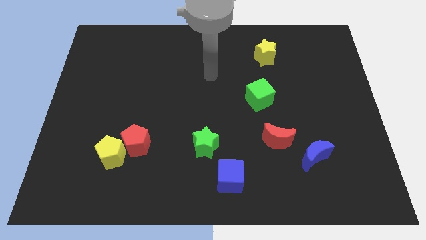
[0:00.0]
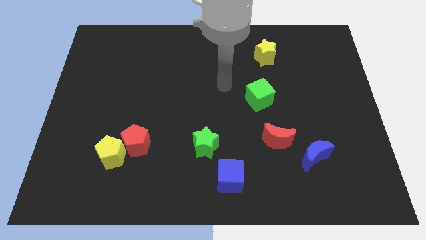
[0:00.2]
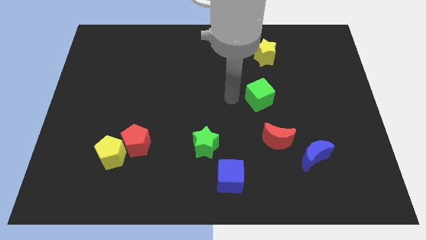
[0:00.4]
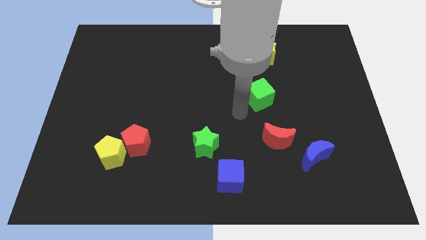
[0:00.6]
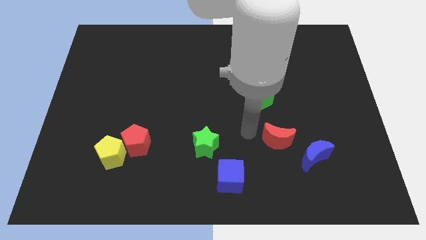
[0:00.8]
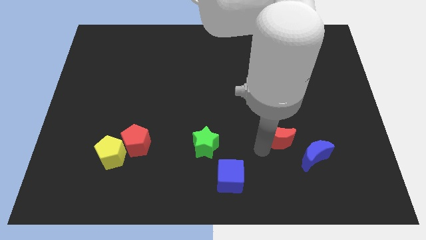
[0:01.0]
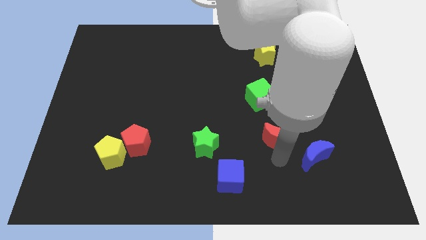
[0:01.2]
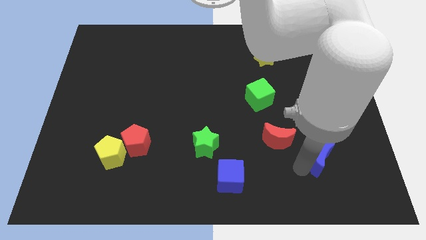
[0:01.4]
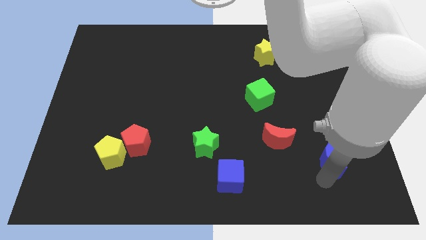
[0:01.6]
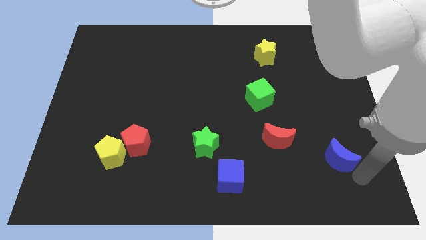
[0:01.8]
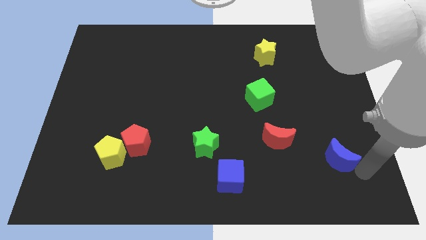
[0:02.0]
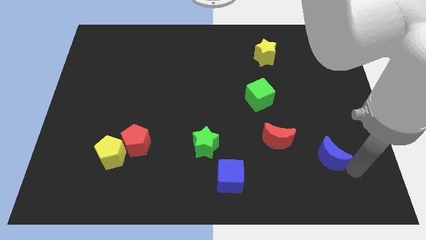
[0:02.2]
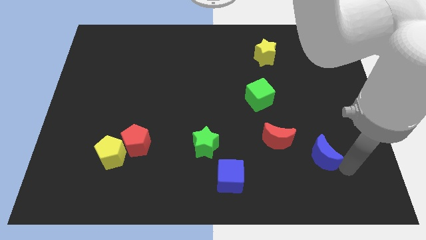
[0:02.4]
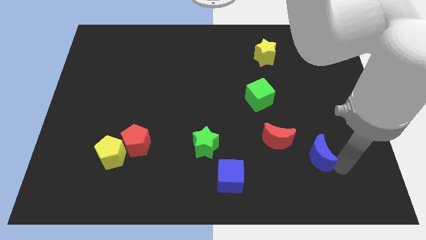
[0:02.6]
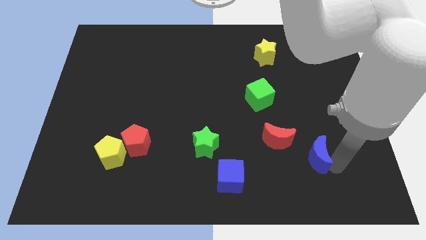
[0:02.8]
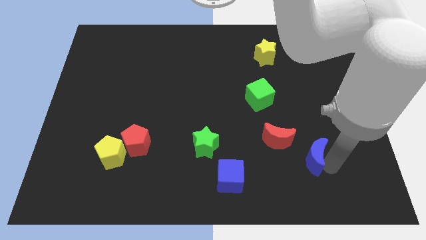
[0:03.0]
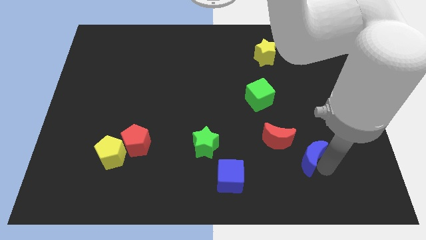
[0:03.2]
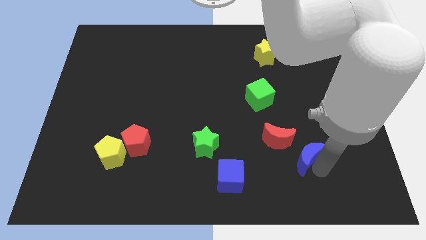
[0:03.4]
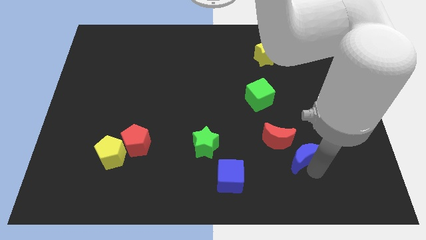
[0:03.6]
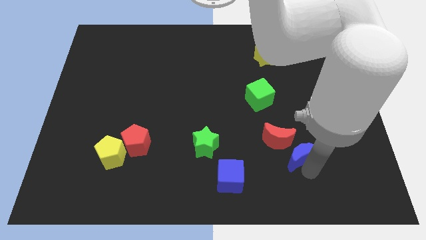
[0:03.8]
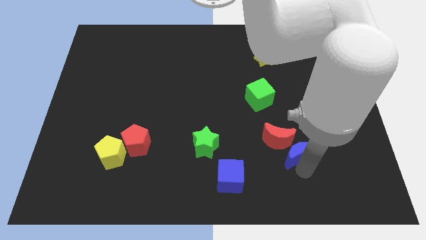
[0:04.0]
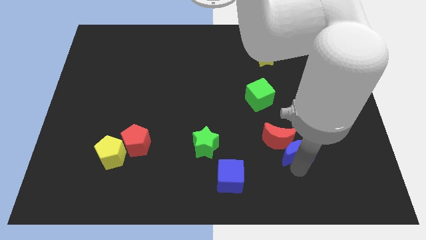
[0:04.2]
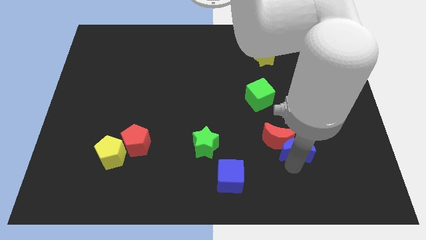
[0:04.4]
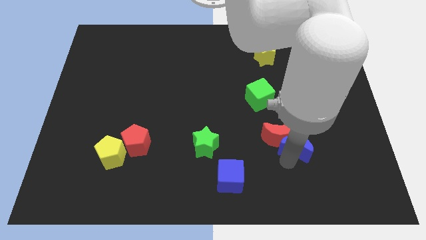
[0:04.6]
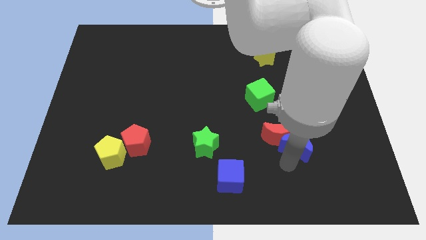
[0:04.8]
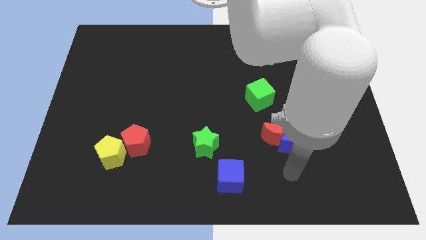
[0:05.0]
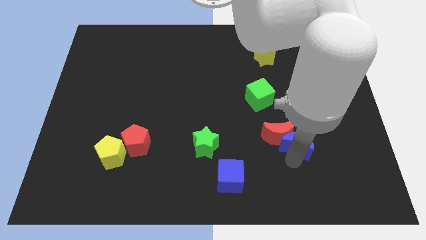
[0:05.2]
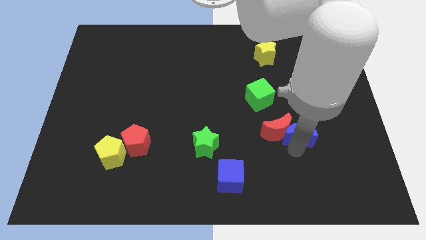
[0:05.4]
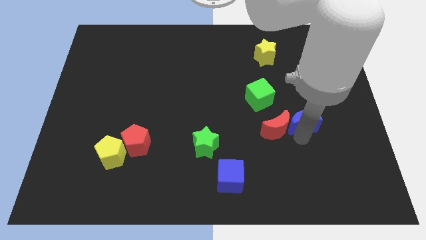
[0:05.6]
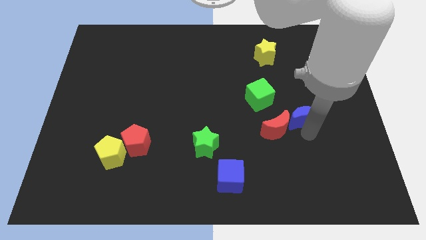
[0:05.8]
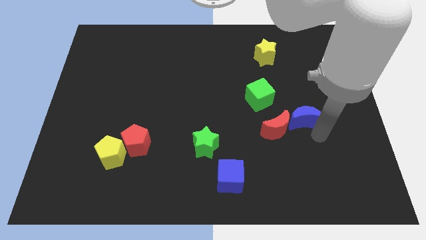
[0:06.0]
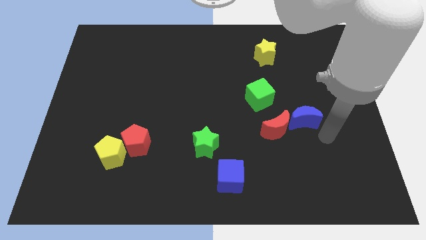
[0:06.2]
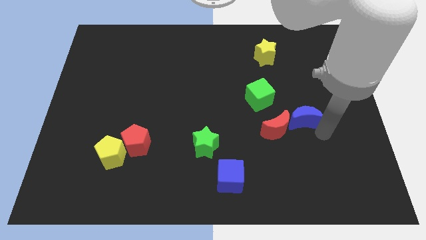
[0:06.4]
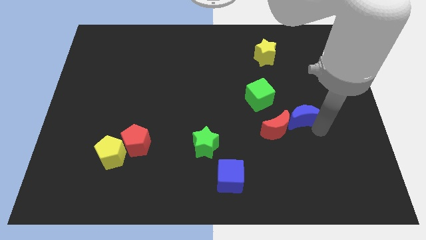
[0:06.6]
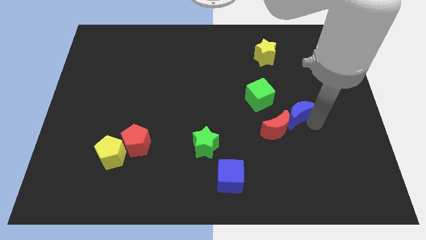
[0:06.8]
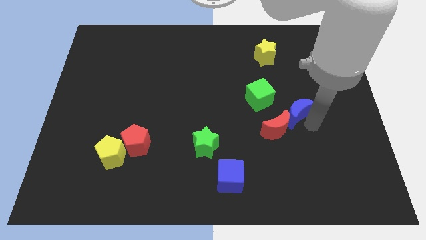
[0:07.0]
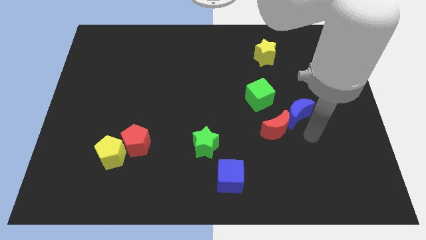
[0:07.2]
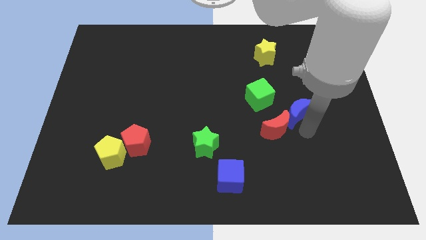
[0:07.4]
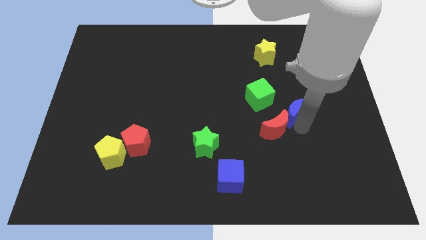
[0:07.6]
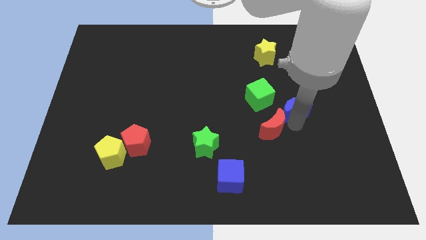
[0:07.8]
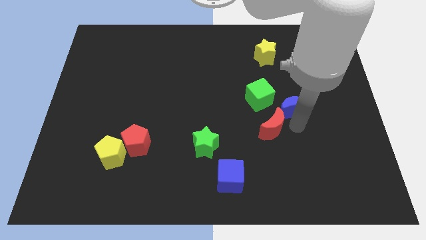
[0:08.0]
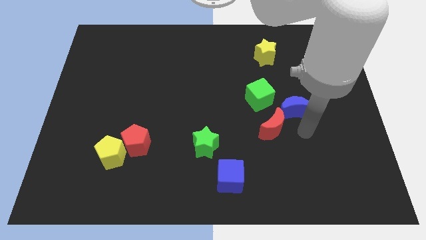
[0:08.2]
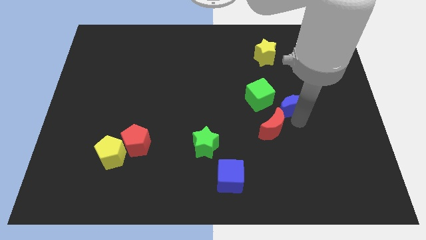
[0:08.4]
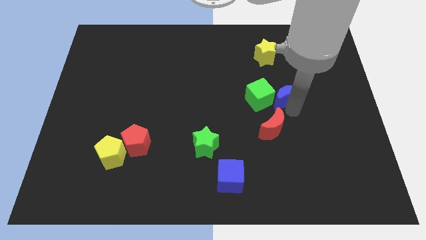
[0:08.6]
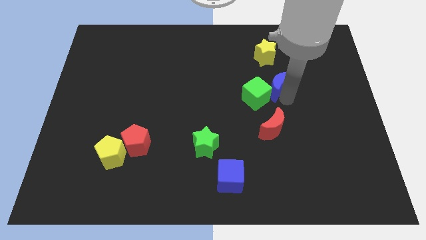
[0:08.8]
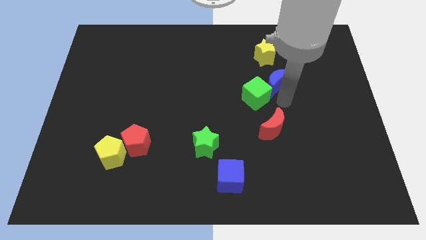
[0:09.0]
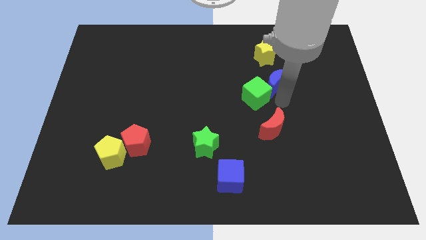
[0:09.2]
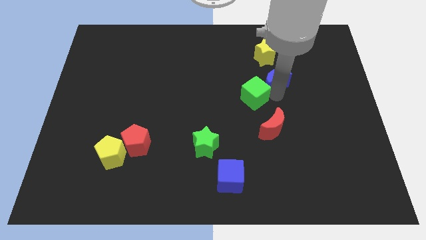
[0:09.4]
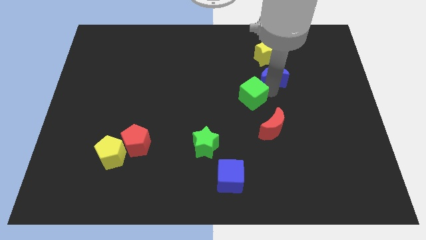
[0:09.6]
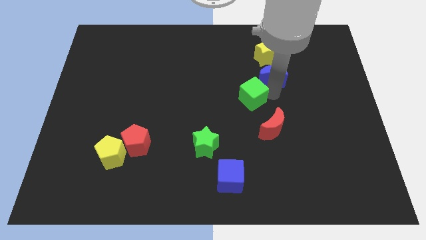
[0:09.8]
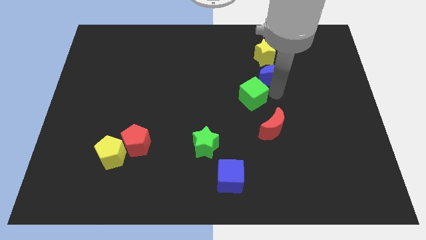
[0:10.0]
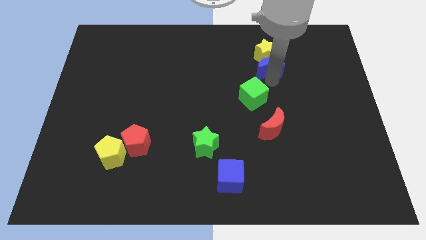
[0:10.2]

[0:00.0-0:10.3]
slide the blue moon close to the yellow star

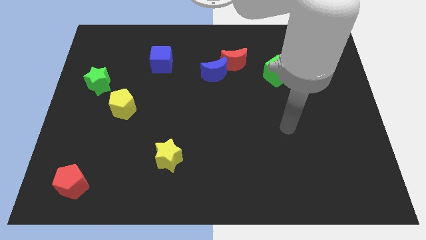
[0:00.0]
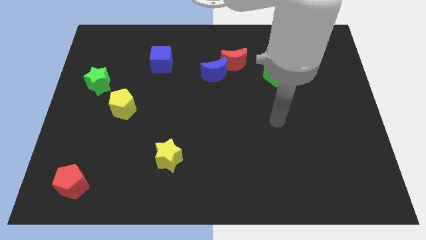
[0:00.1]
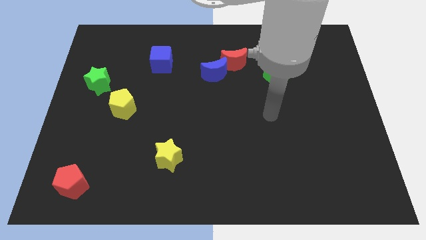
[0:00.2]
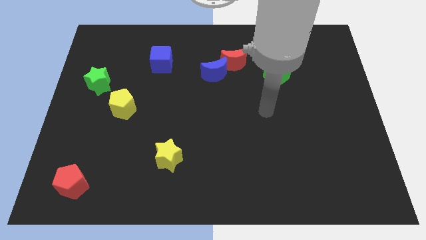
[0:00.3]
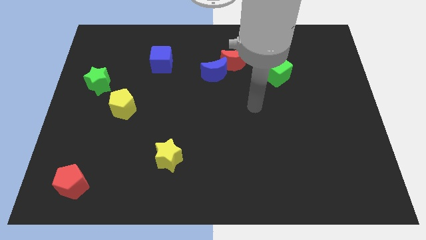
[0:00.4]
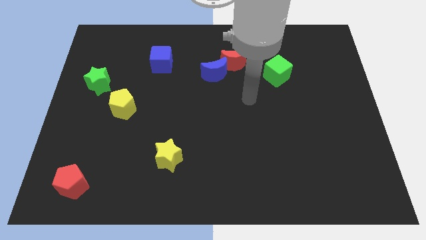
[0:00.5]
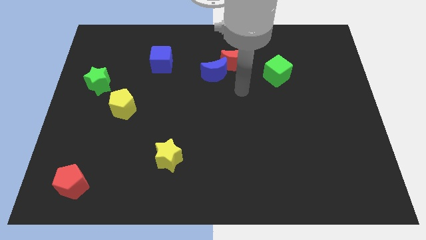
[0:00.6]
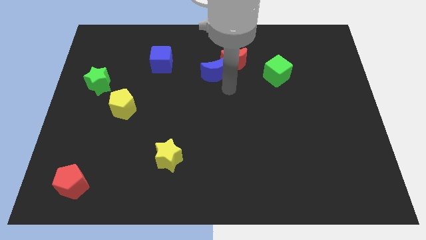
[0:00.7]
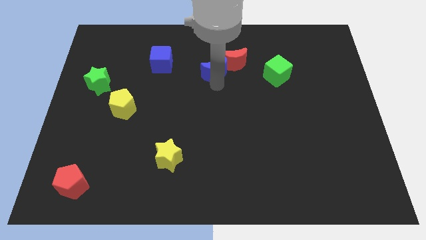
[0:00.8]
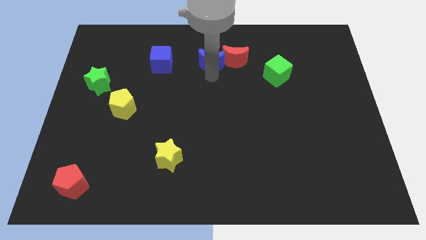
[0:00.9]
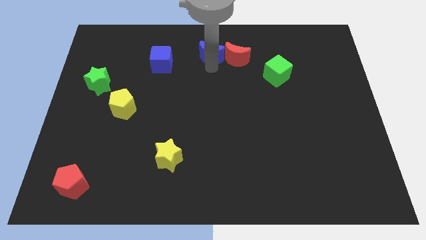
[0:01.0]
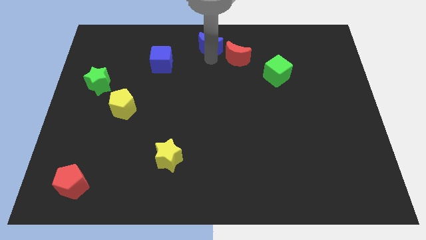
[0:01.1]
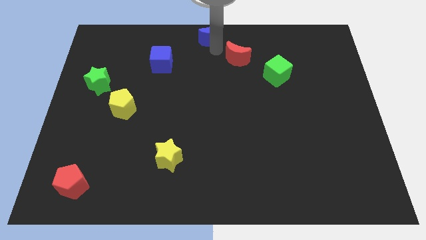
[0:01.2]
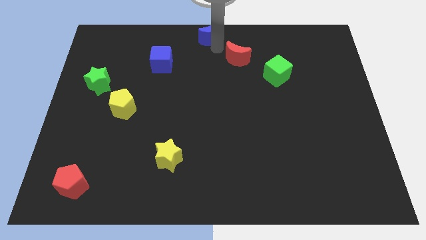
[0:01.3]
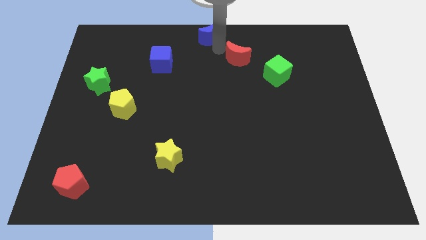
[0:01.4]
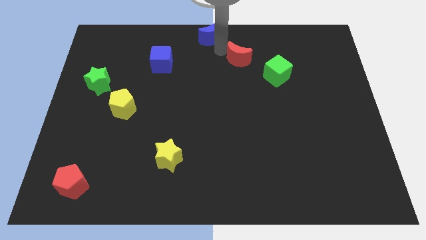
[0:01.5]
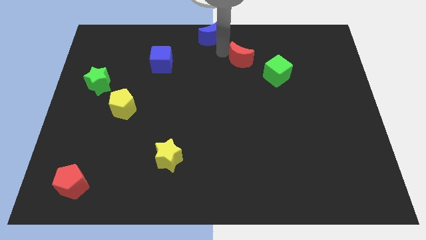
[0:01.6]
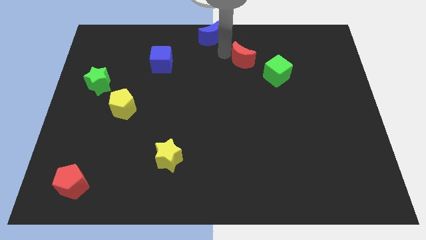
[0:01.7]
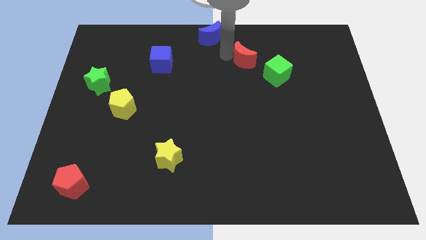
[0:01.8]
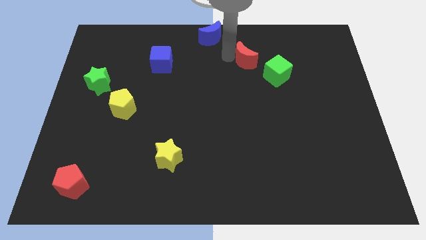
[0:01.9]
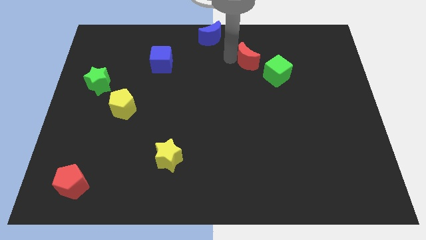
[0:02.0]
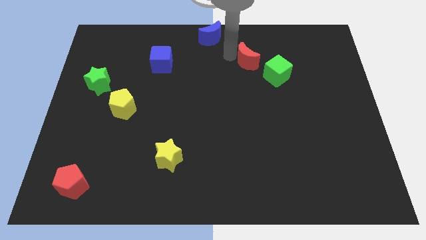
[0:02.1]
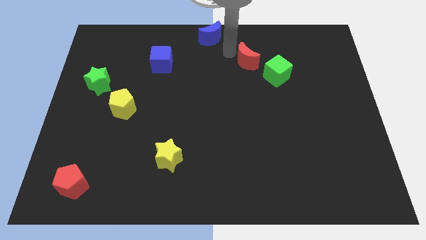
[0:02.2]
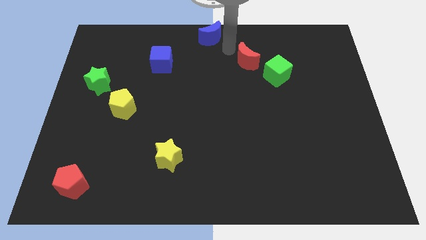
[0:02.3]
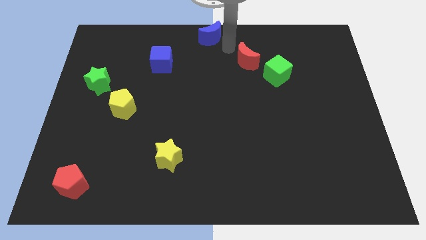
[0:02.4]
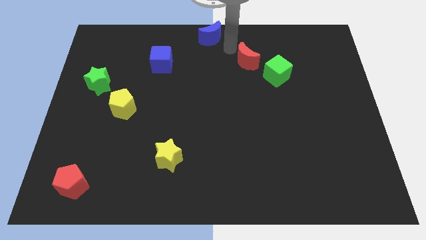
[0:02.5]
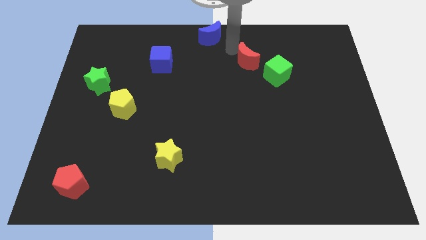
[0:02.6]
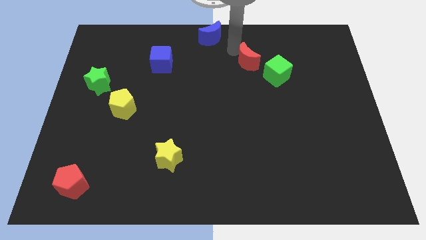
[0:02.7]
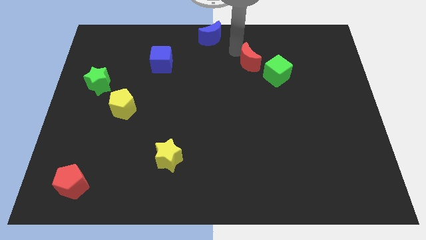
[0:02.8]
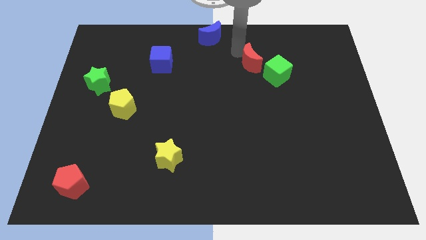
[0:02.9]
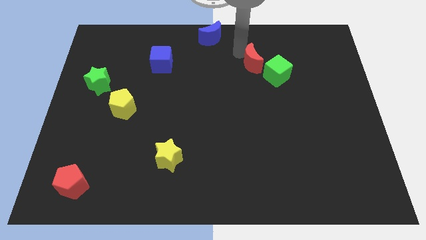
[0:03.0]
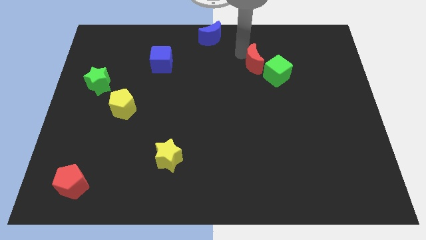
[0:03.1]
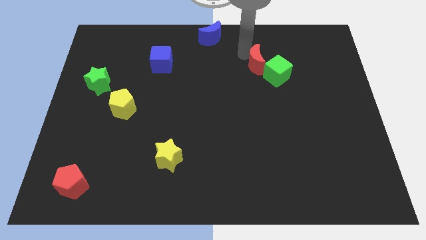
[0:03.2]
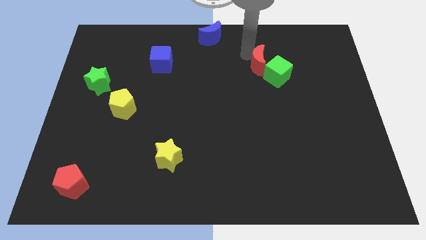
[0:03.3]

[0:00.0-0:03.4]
push the red moon next to the green cube
